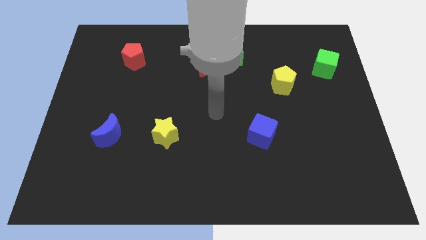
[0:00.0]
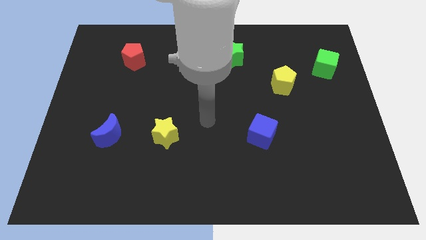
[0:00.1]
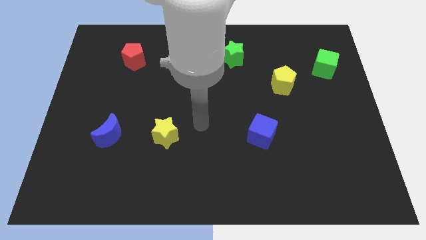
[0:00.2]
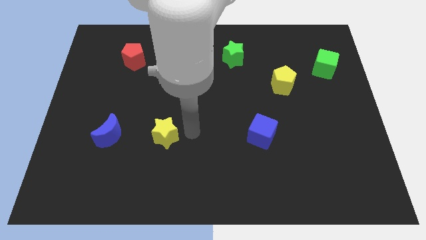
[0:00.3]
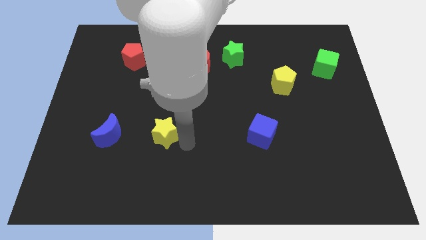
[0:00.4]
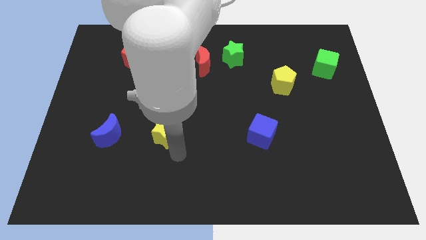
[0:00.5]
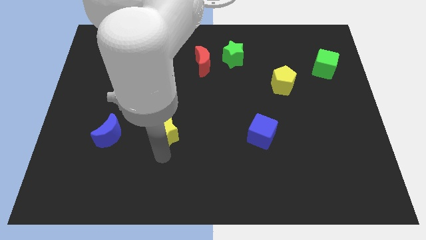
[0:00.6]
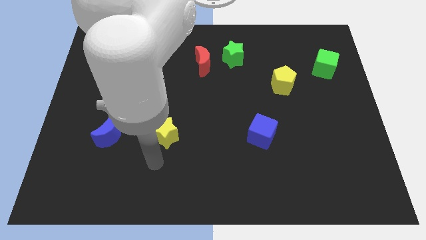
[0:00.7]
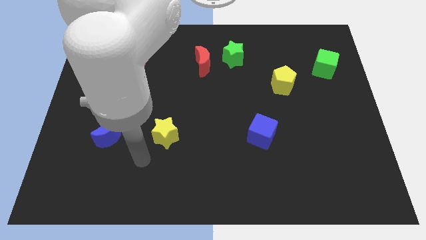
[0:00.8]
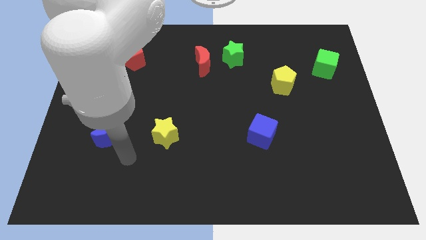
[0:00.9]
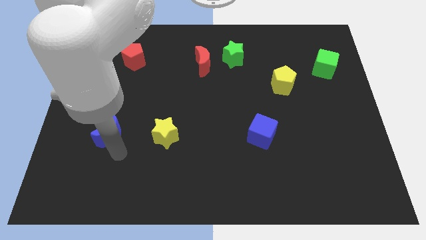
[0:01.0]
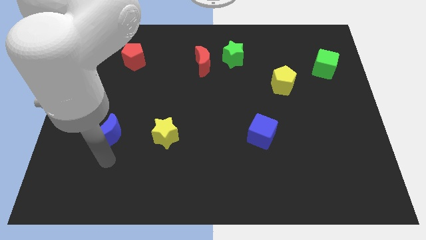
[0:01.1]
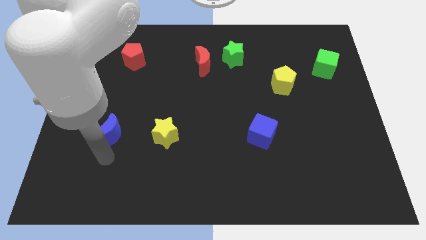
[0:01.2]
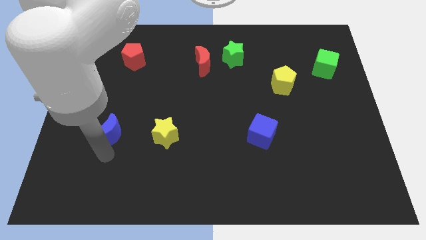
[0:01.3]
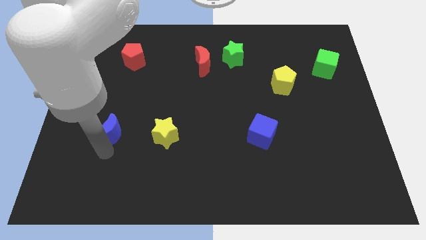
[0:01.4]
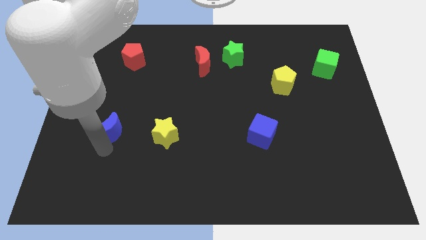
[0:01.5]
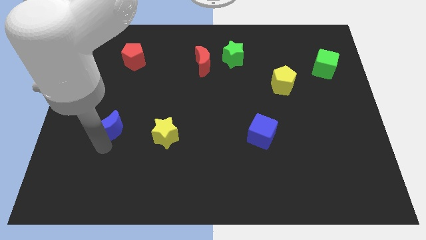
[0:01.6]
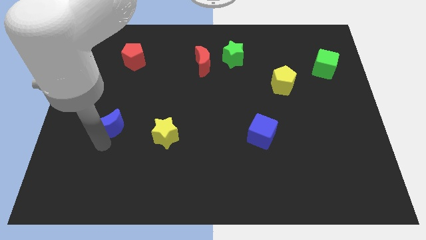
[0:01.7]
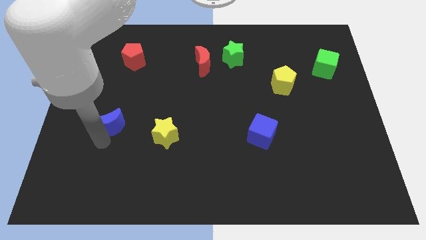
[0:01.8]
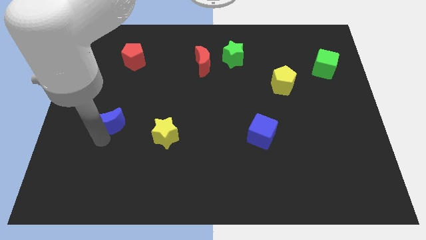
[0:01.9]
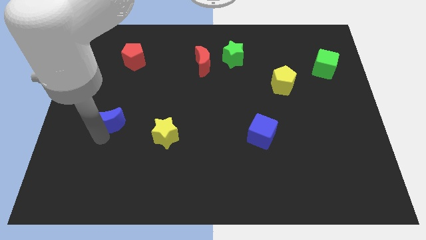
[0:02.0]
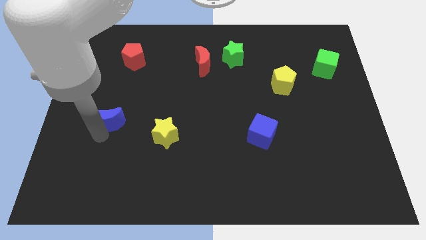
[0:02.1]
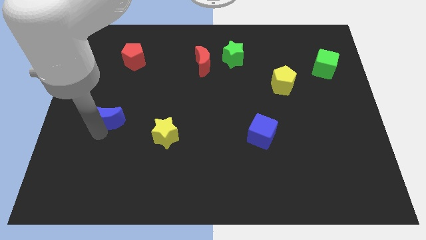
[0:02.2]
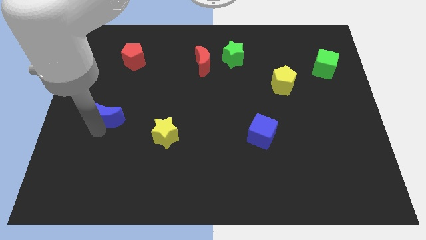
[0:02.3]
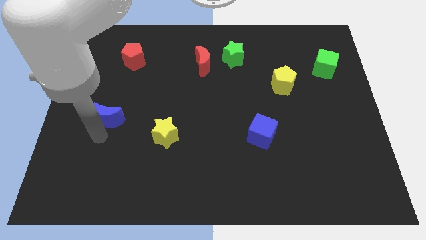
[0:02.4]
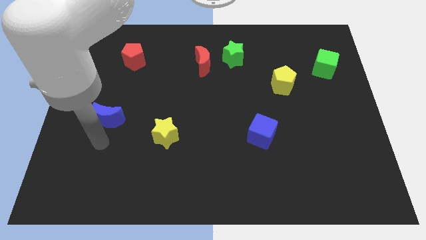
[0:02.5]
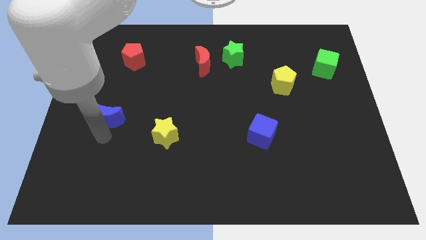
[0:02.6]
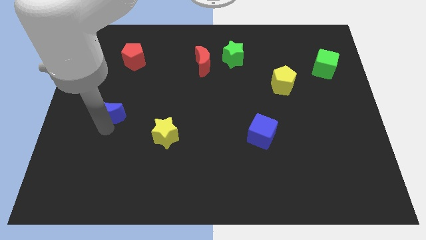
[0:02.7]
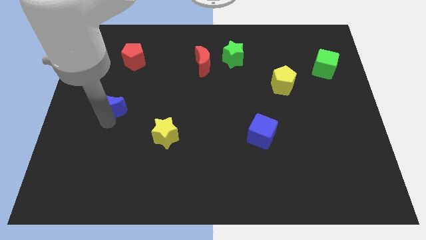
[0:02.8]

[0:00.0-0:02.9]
slightly push the blue moon upwards

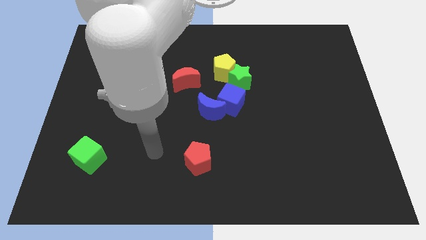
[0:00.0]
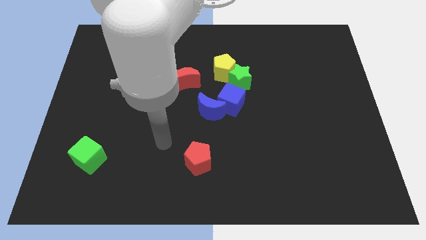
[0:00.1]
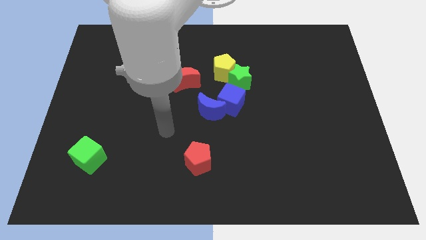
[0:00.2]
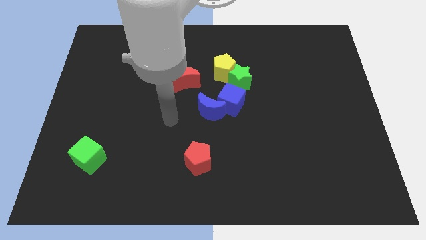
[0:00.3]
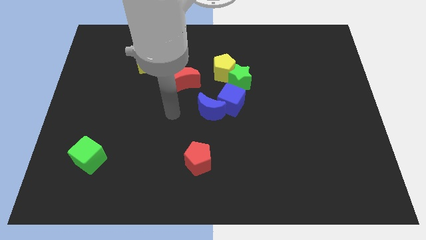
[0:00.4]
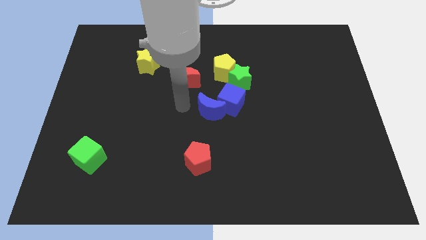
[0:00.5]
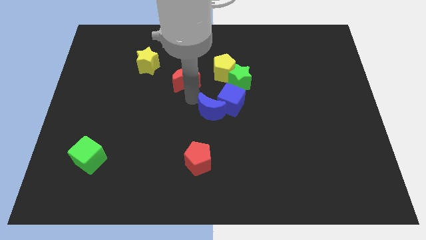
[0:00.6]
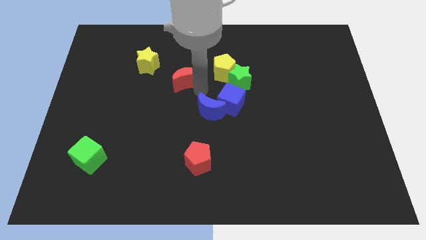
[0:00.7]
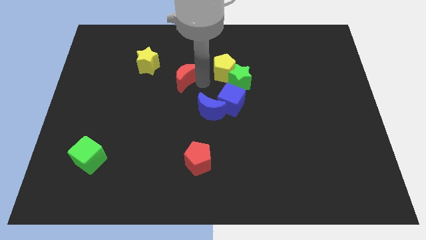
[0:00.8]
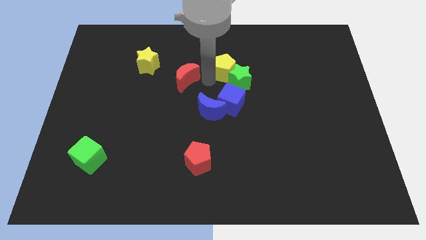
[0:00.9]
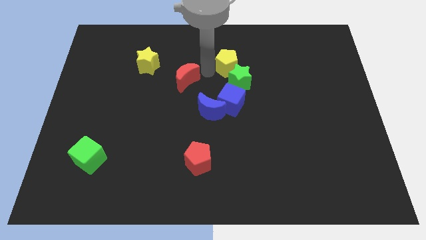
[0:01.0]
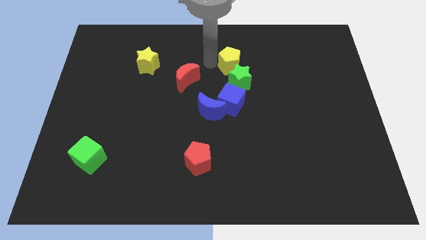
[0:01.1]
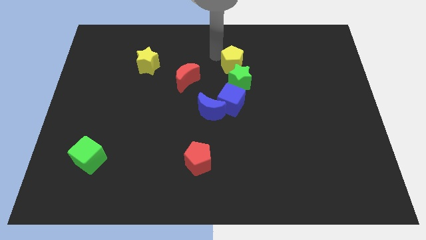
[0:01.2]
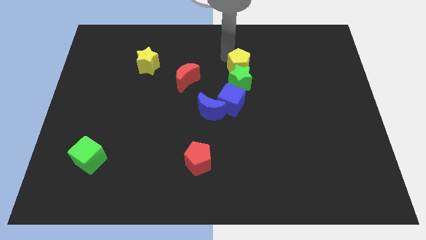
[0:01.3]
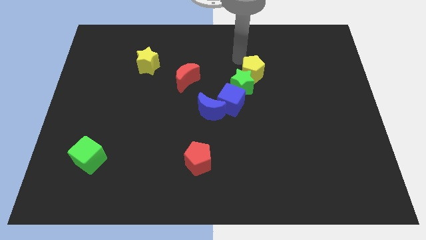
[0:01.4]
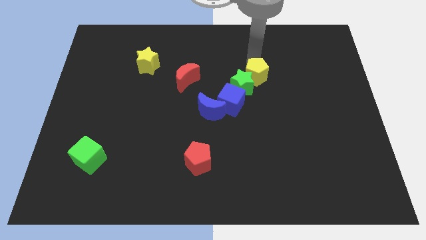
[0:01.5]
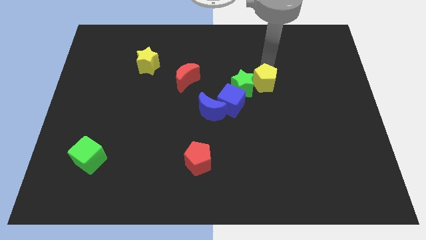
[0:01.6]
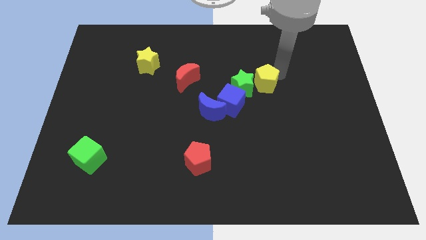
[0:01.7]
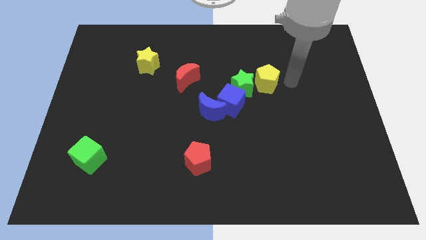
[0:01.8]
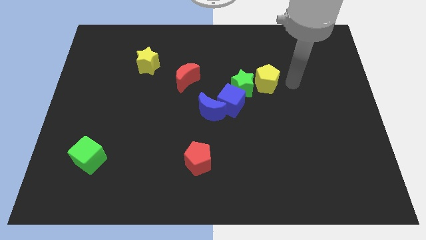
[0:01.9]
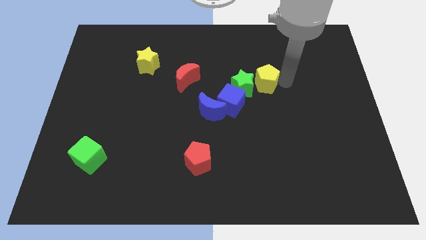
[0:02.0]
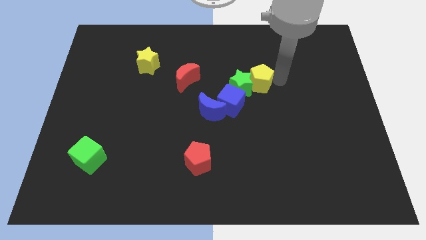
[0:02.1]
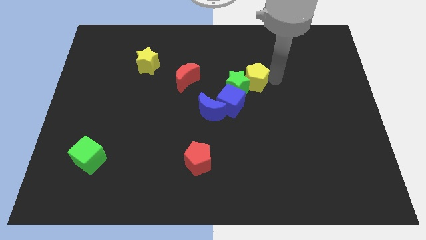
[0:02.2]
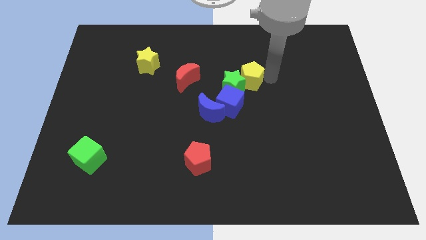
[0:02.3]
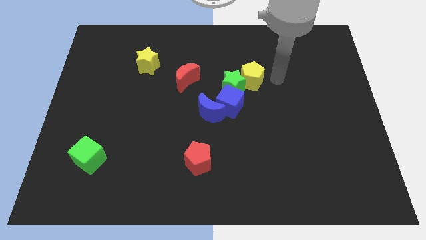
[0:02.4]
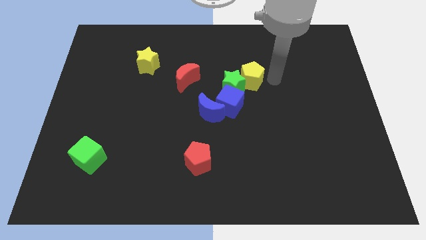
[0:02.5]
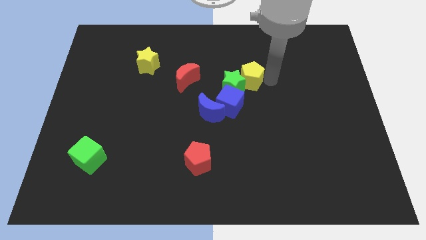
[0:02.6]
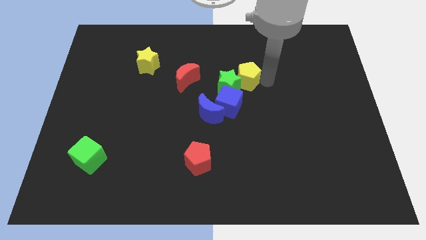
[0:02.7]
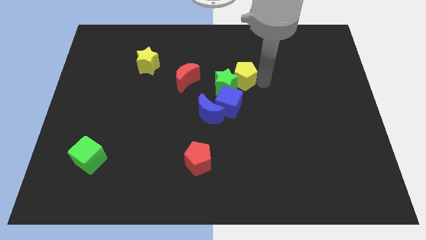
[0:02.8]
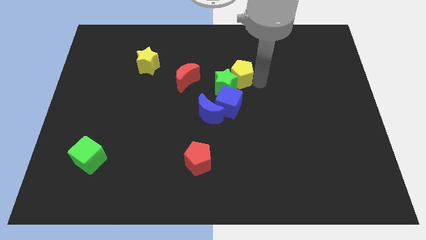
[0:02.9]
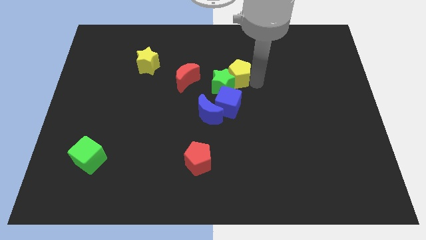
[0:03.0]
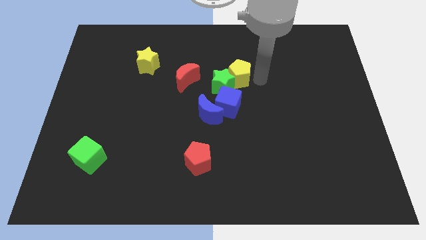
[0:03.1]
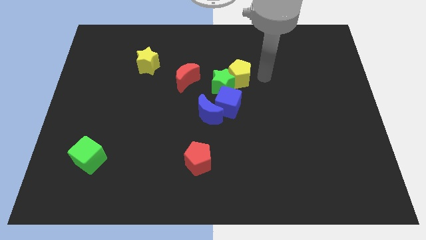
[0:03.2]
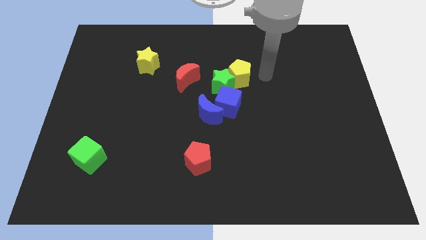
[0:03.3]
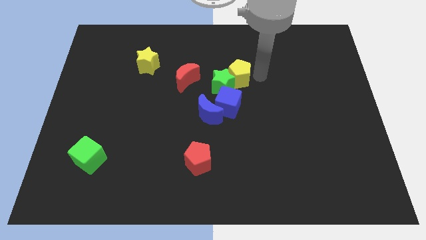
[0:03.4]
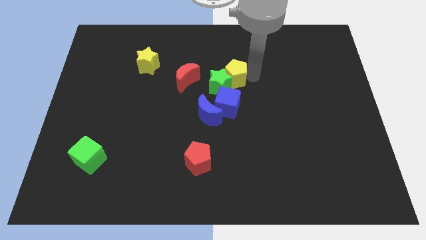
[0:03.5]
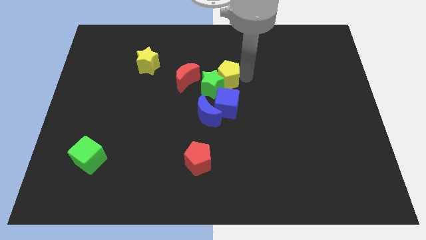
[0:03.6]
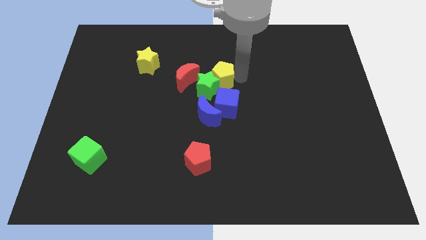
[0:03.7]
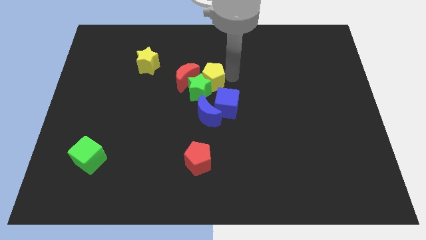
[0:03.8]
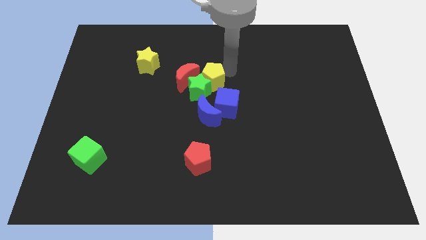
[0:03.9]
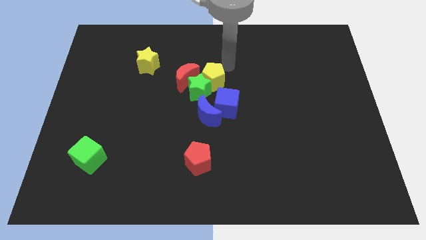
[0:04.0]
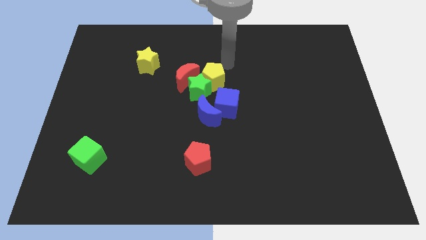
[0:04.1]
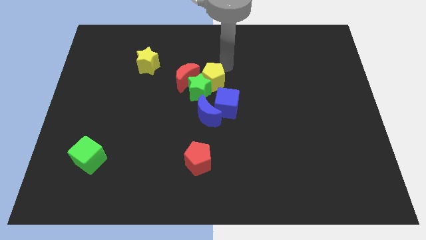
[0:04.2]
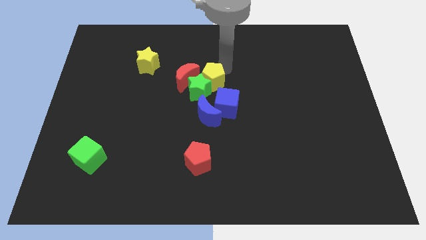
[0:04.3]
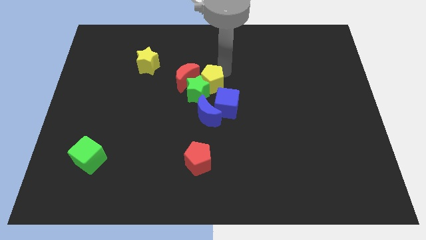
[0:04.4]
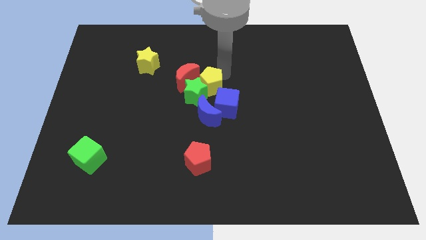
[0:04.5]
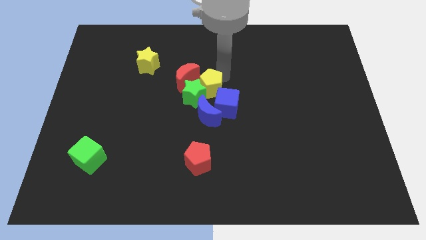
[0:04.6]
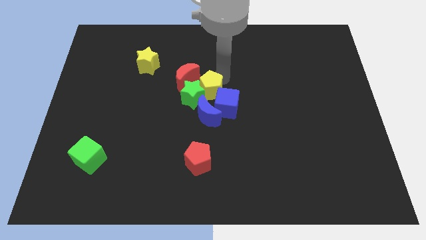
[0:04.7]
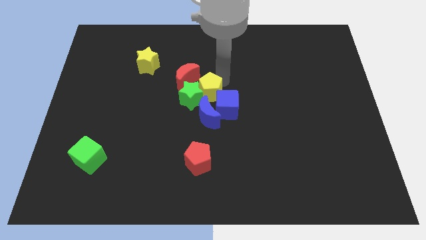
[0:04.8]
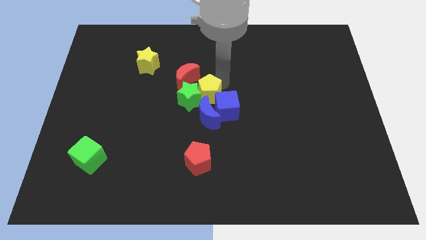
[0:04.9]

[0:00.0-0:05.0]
slightly move the yellow pentagon down and left

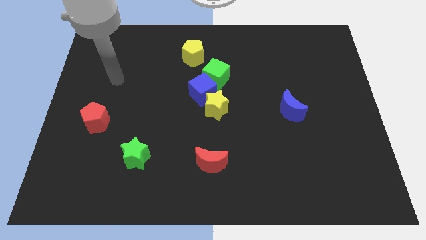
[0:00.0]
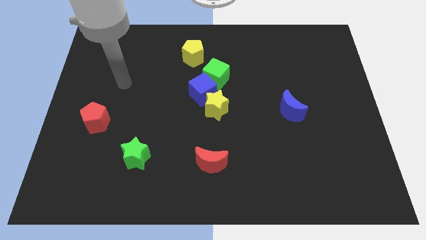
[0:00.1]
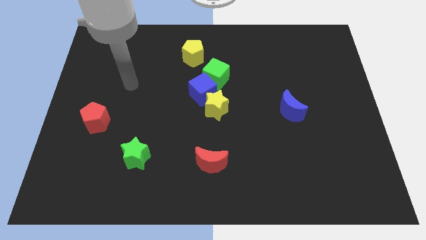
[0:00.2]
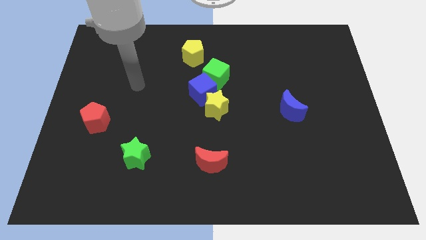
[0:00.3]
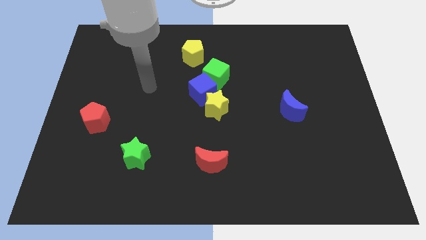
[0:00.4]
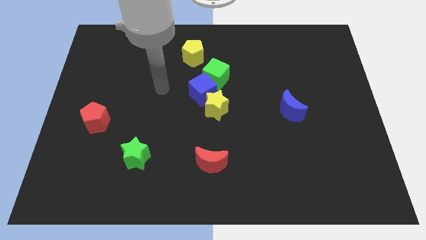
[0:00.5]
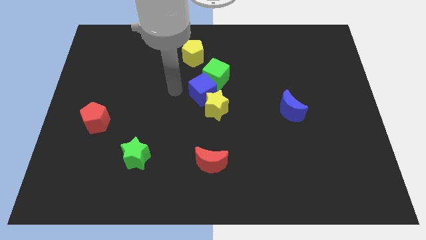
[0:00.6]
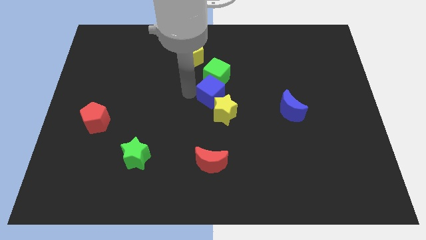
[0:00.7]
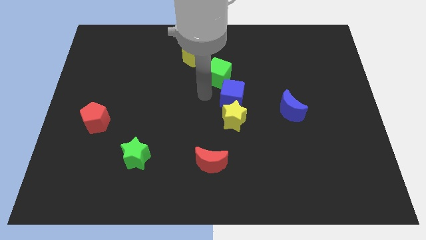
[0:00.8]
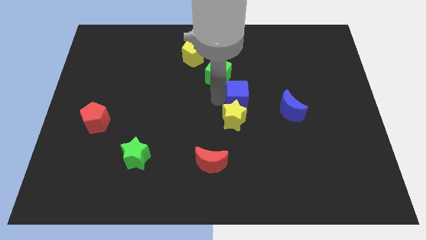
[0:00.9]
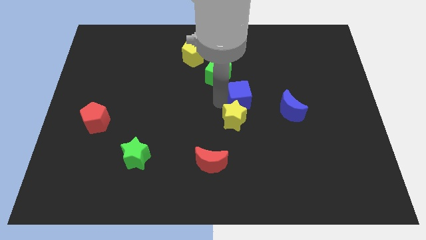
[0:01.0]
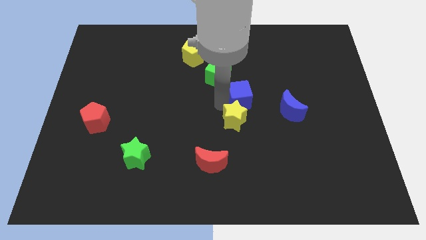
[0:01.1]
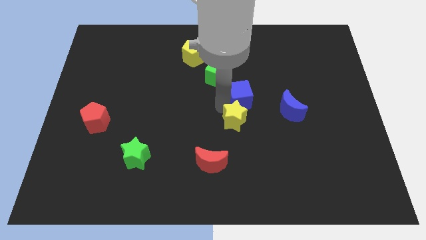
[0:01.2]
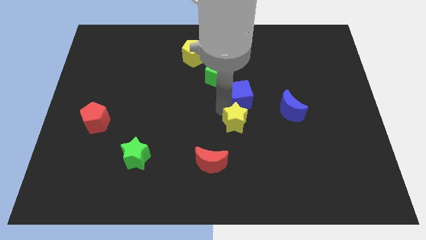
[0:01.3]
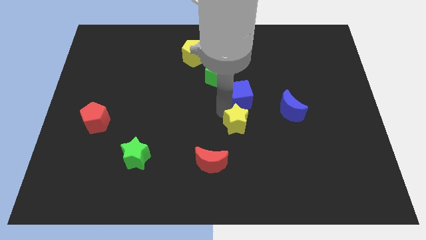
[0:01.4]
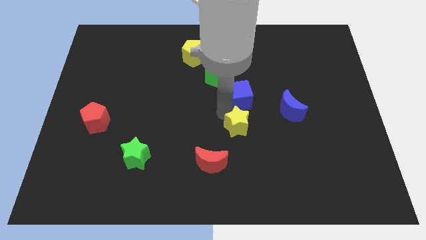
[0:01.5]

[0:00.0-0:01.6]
move the yellow star a little bit downwards and to the right diagonally
